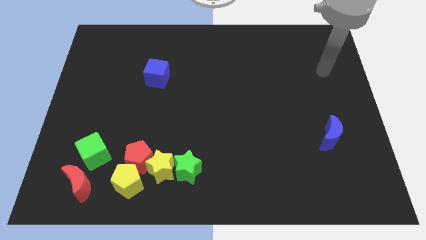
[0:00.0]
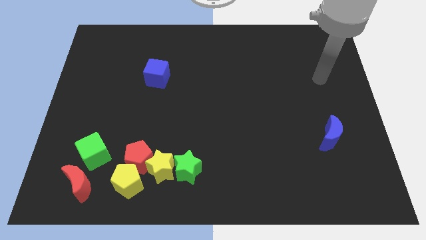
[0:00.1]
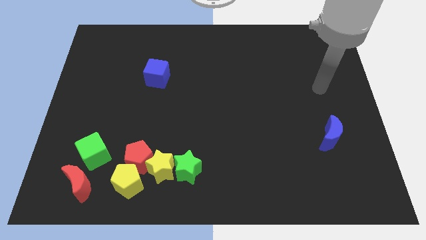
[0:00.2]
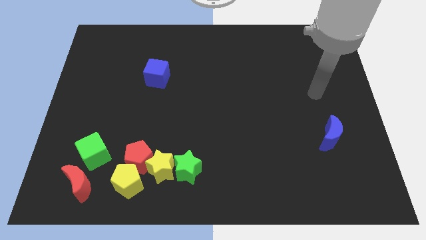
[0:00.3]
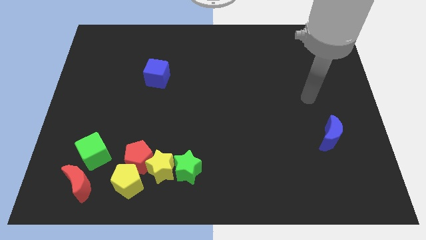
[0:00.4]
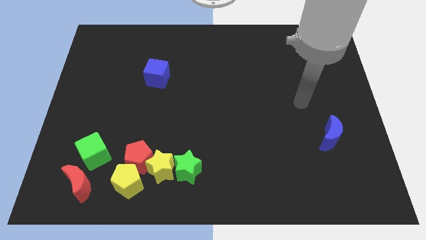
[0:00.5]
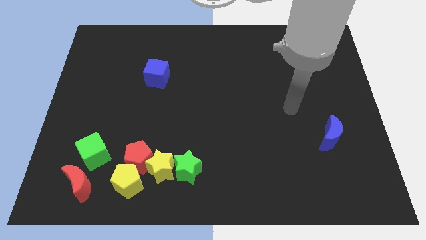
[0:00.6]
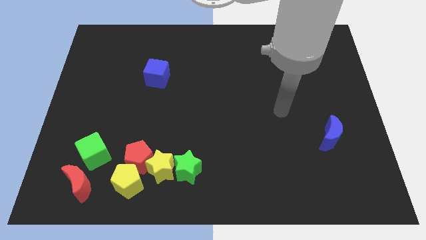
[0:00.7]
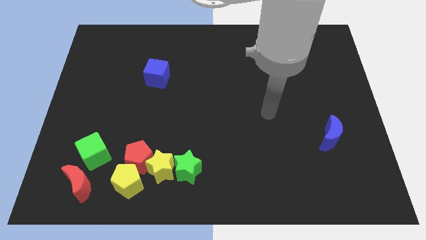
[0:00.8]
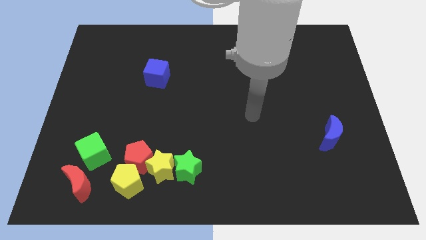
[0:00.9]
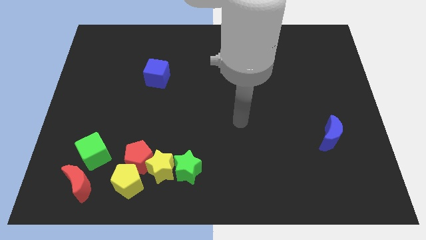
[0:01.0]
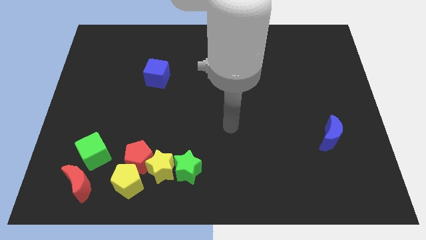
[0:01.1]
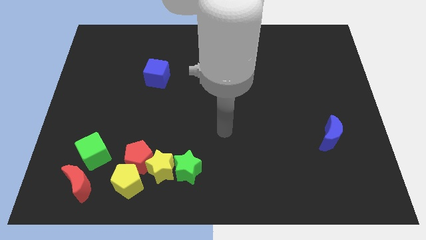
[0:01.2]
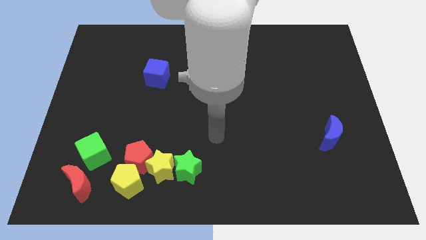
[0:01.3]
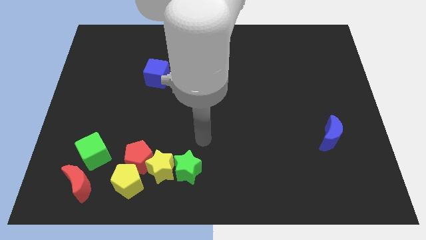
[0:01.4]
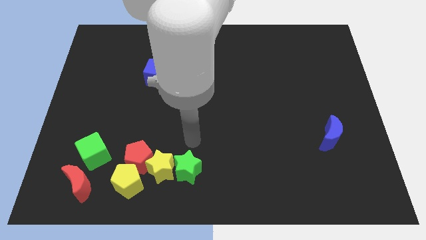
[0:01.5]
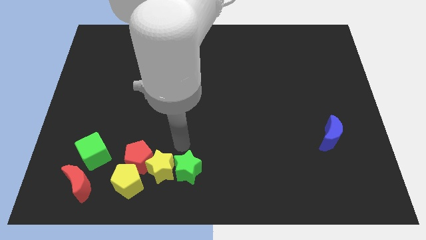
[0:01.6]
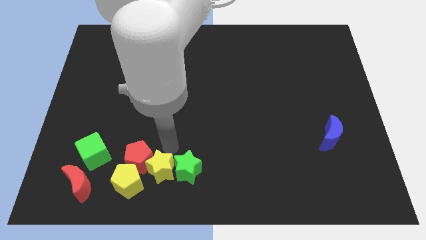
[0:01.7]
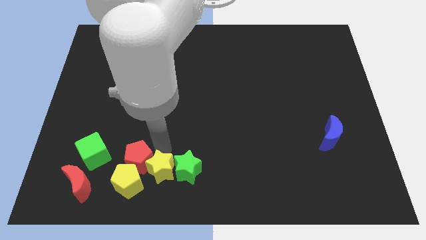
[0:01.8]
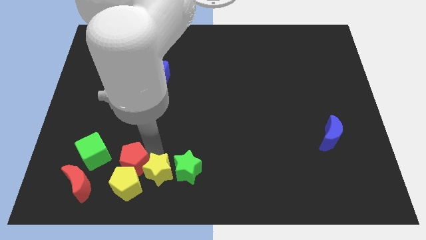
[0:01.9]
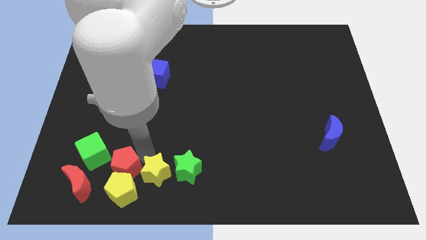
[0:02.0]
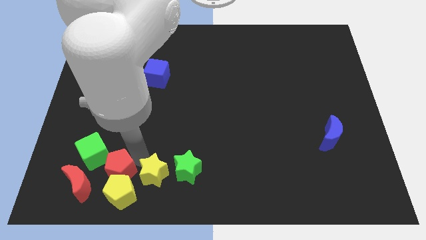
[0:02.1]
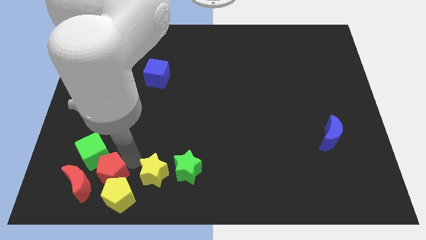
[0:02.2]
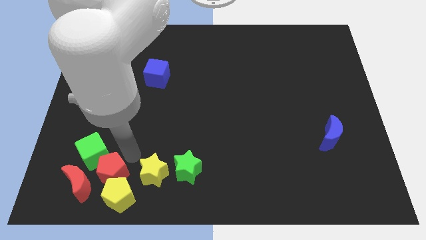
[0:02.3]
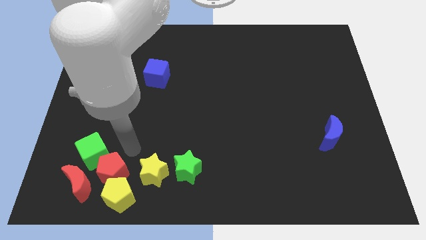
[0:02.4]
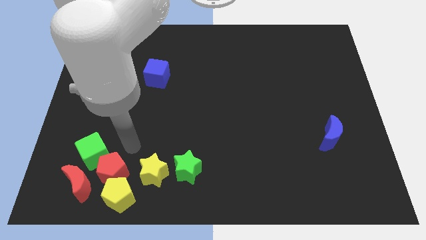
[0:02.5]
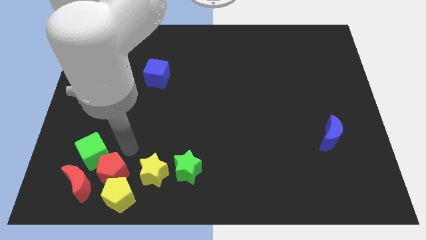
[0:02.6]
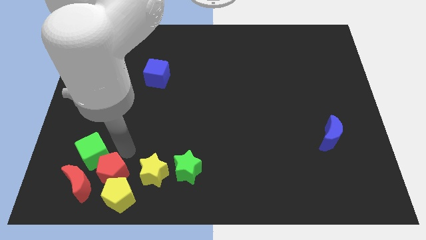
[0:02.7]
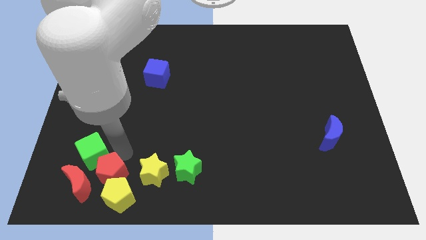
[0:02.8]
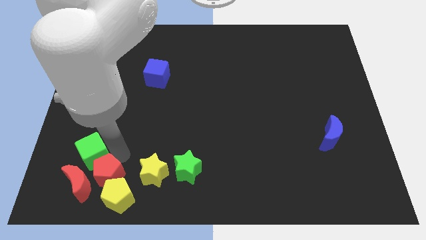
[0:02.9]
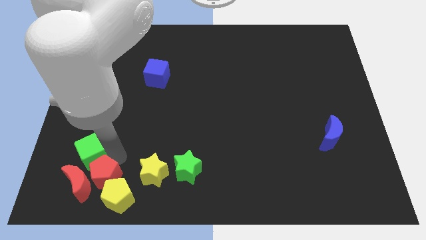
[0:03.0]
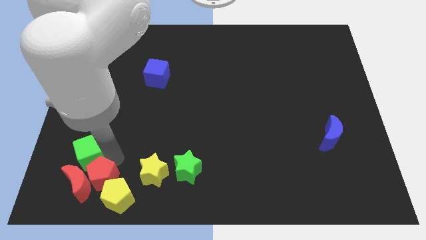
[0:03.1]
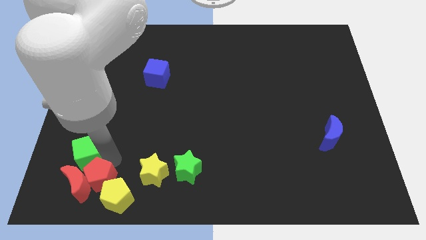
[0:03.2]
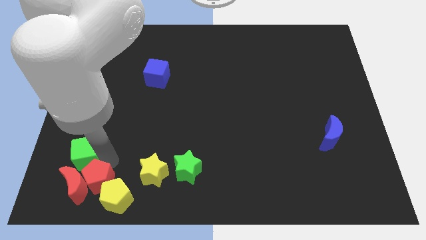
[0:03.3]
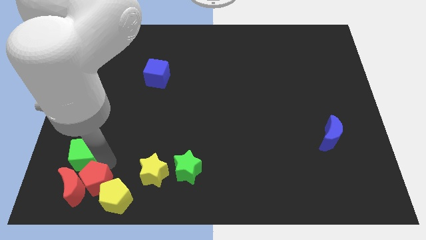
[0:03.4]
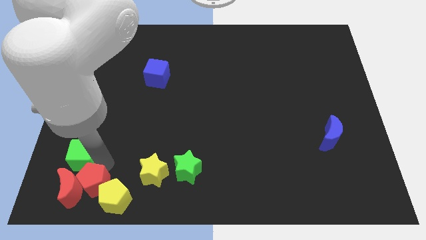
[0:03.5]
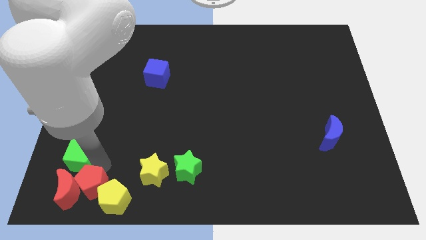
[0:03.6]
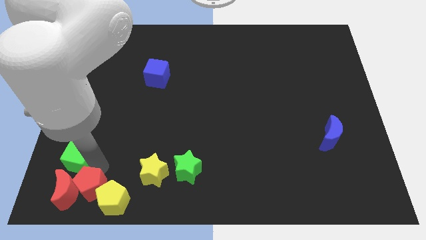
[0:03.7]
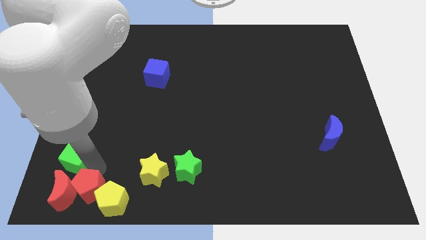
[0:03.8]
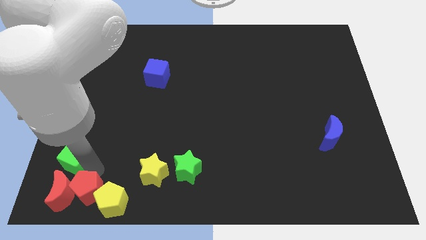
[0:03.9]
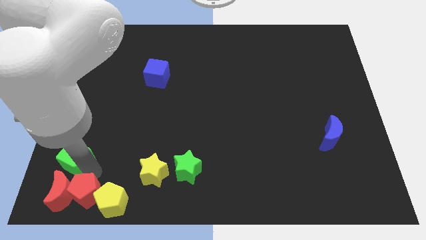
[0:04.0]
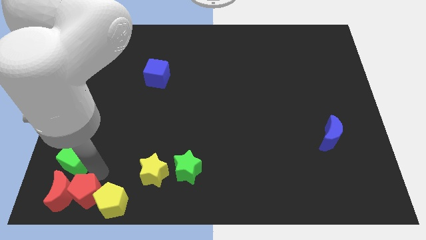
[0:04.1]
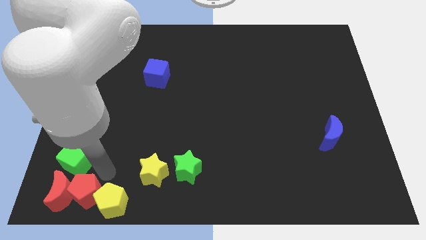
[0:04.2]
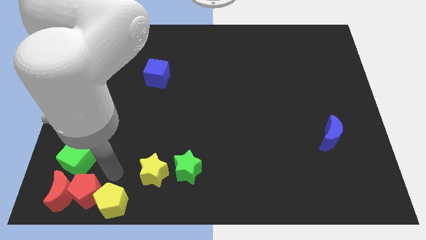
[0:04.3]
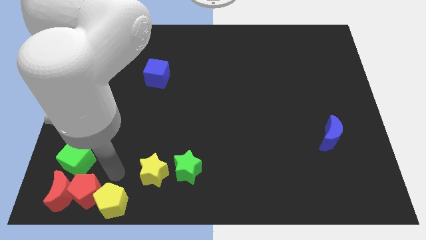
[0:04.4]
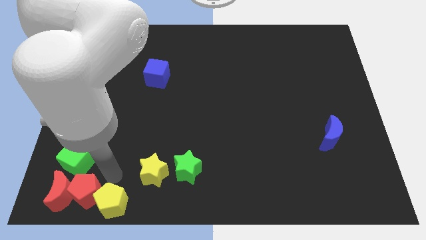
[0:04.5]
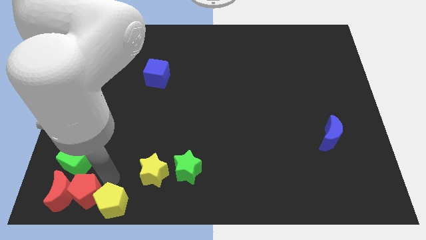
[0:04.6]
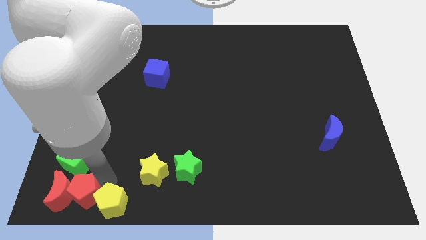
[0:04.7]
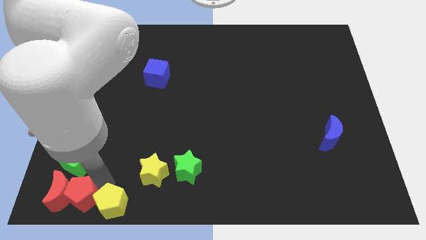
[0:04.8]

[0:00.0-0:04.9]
slide the red pentagon to the bottom left

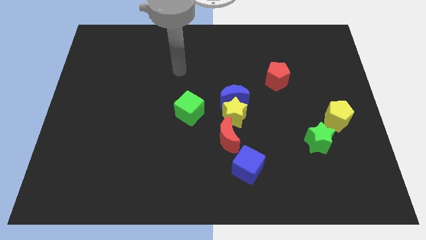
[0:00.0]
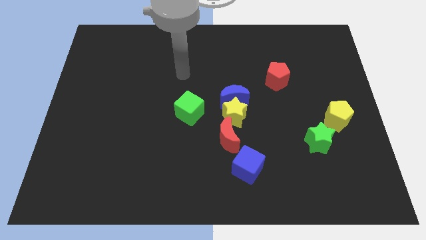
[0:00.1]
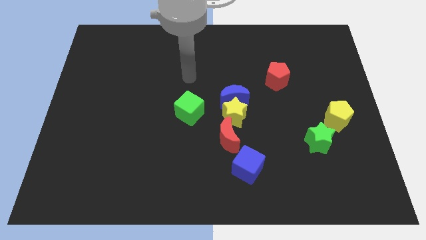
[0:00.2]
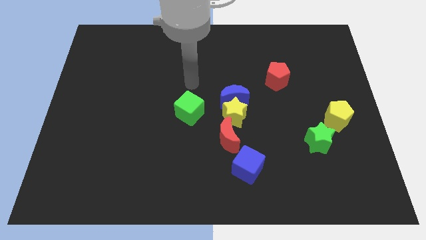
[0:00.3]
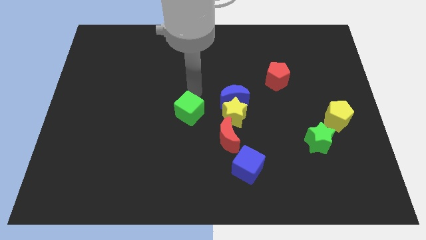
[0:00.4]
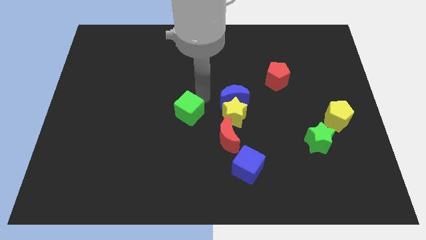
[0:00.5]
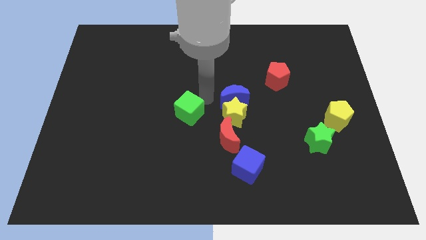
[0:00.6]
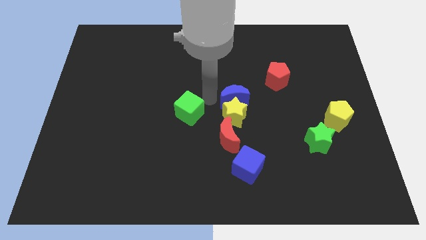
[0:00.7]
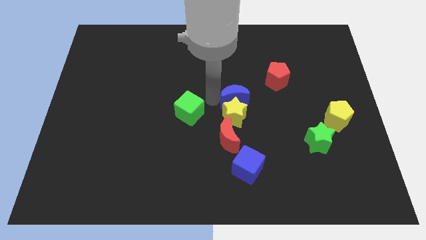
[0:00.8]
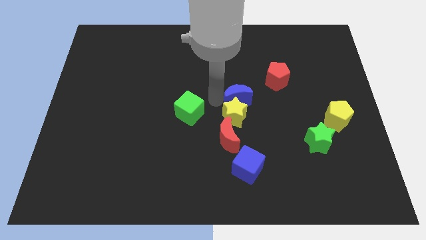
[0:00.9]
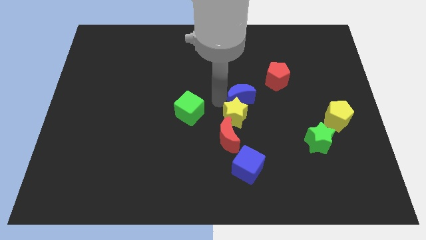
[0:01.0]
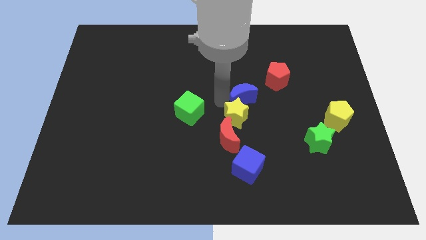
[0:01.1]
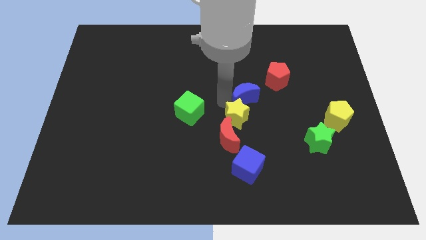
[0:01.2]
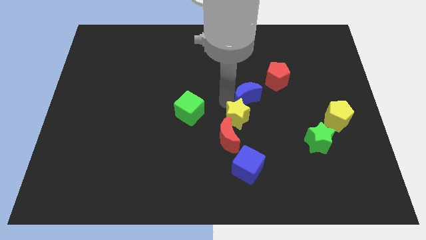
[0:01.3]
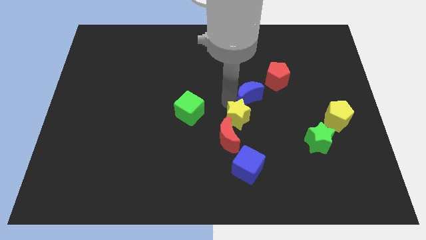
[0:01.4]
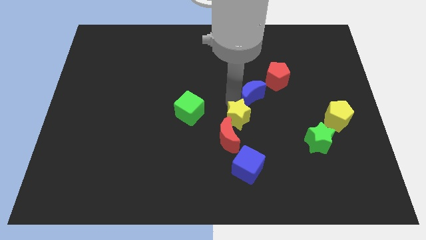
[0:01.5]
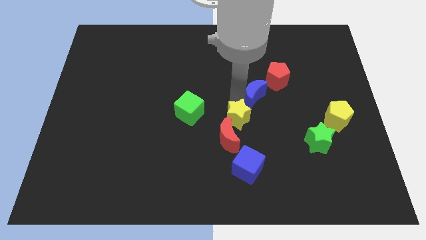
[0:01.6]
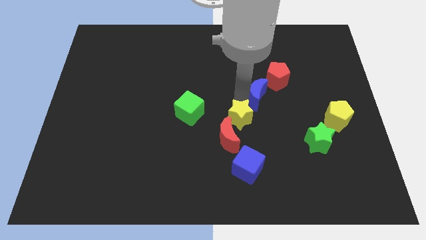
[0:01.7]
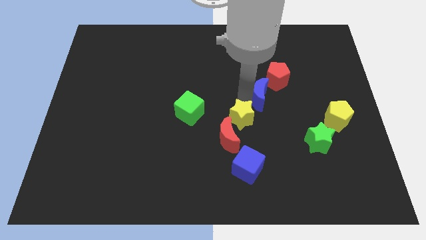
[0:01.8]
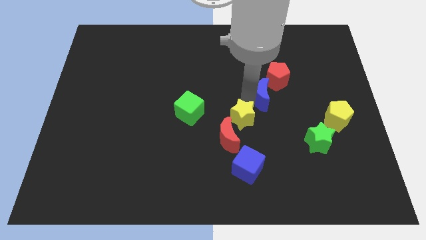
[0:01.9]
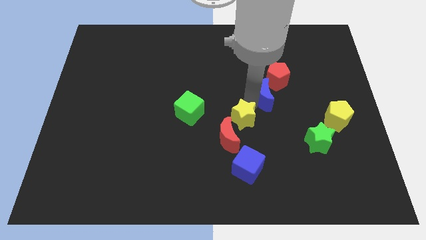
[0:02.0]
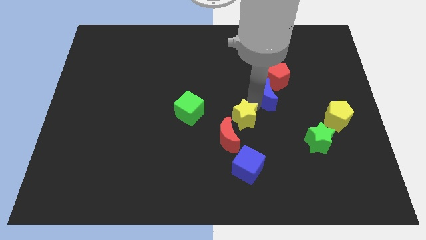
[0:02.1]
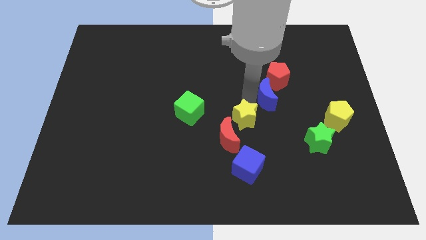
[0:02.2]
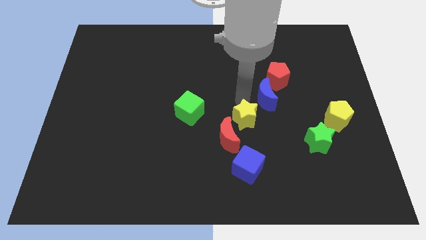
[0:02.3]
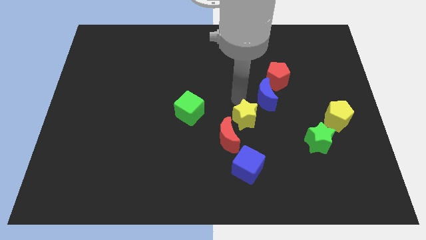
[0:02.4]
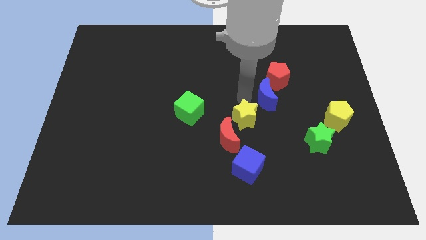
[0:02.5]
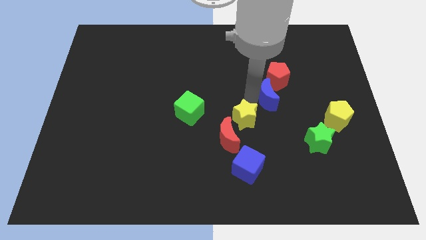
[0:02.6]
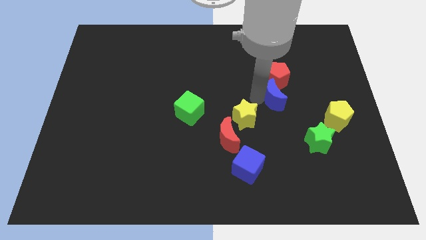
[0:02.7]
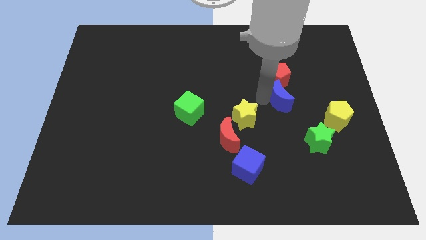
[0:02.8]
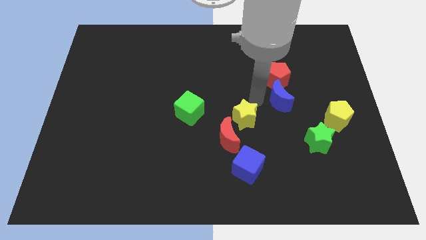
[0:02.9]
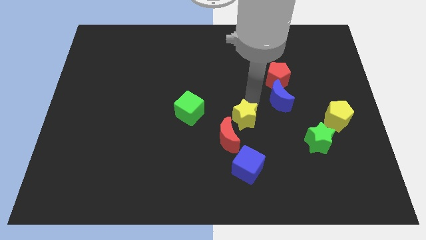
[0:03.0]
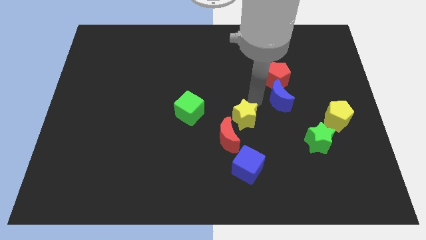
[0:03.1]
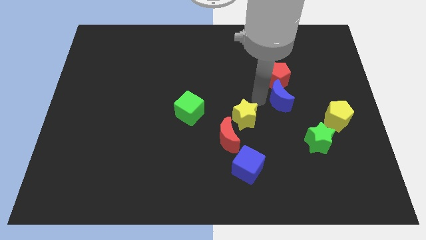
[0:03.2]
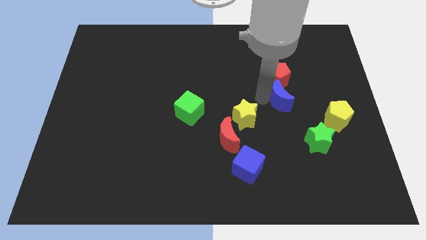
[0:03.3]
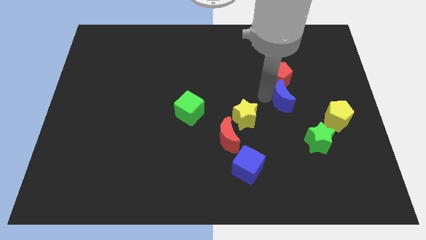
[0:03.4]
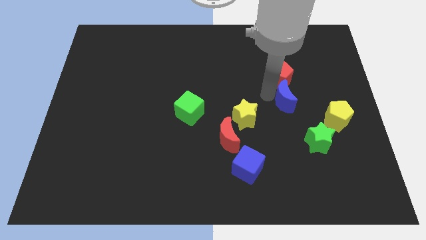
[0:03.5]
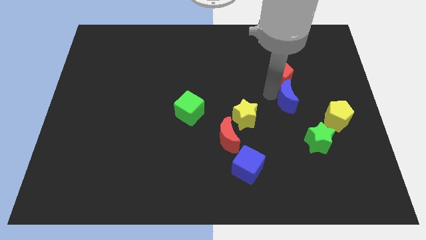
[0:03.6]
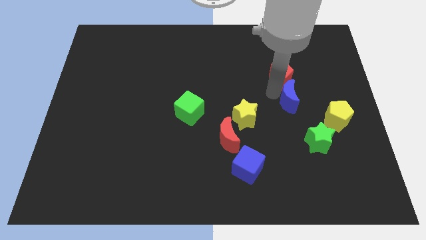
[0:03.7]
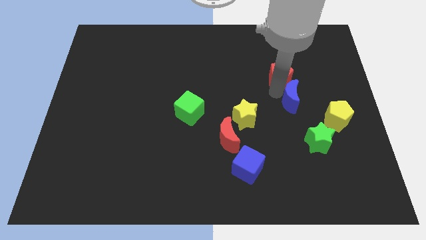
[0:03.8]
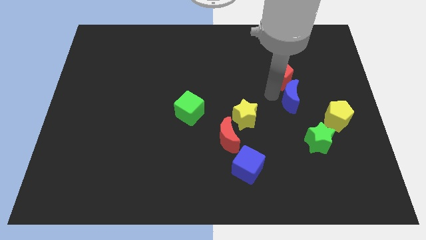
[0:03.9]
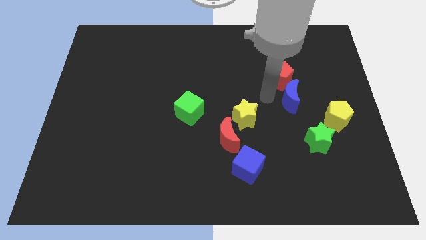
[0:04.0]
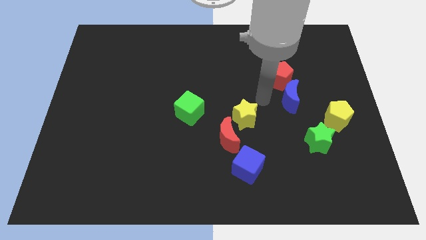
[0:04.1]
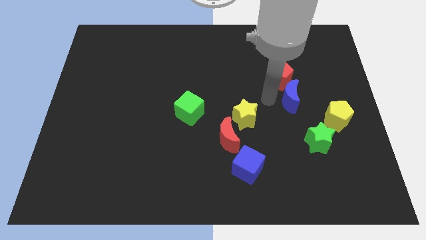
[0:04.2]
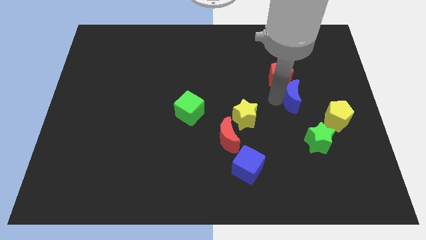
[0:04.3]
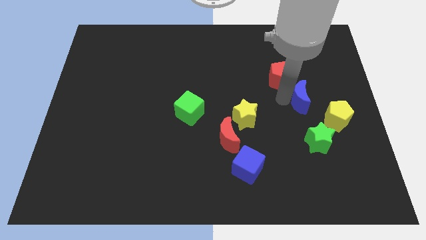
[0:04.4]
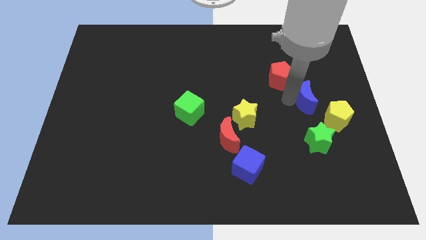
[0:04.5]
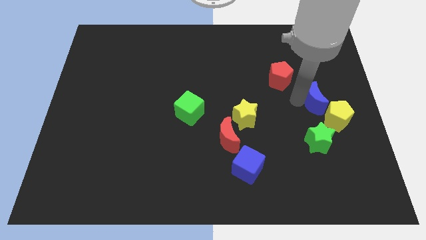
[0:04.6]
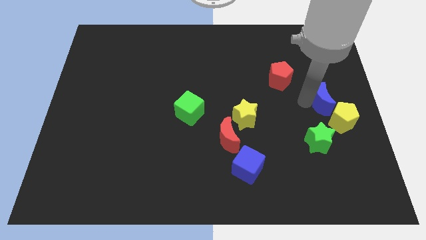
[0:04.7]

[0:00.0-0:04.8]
put the blue moon to the center right
